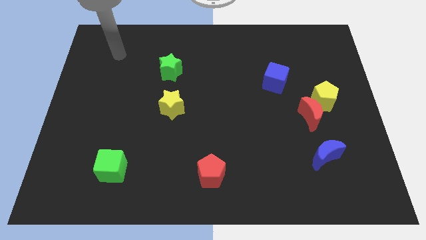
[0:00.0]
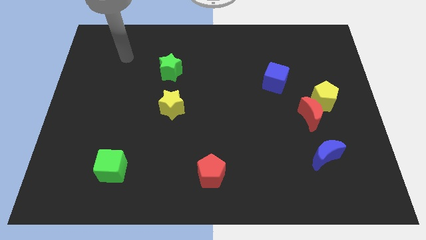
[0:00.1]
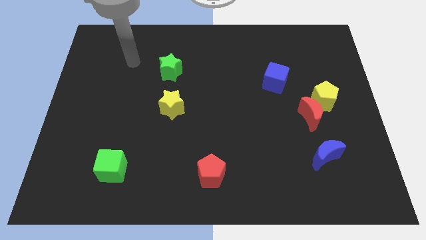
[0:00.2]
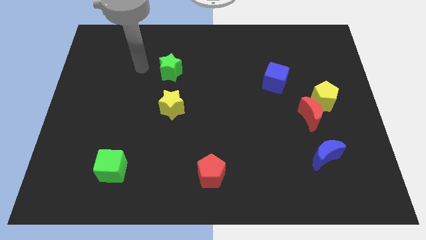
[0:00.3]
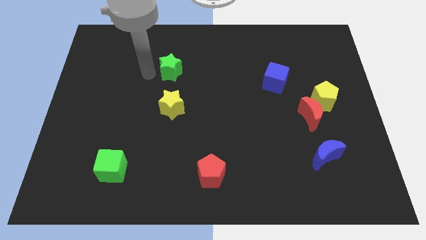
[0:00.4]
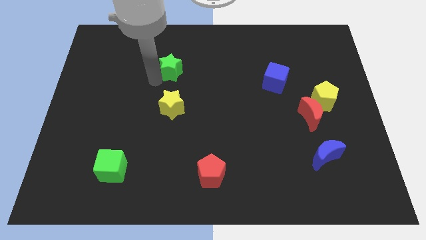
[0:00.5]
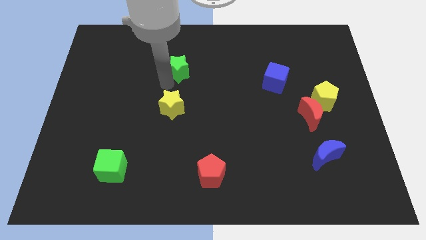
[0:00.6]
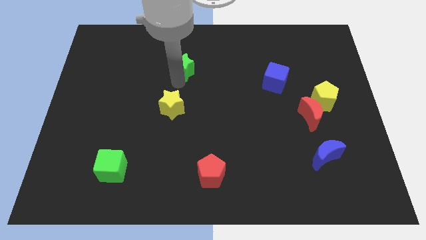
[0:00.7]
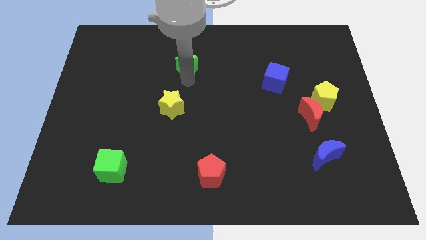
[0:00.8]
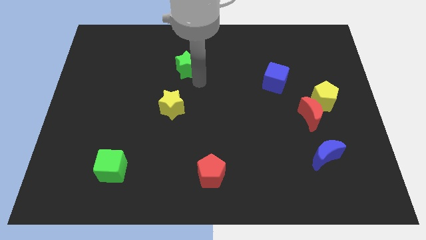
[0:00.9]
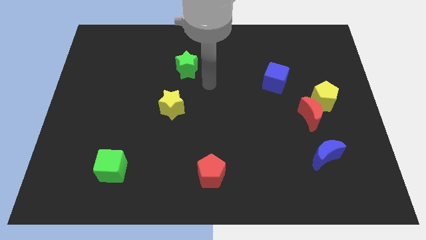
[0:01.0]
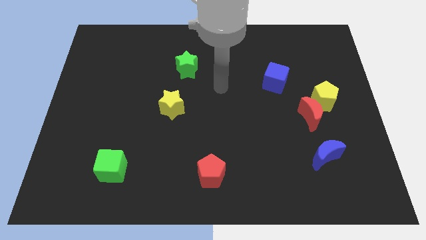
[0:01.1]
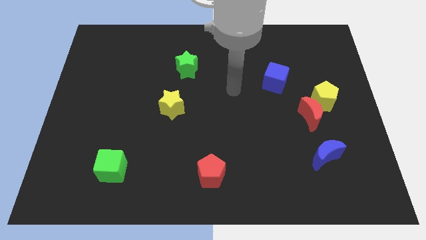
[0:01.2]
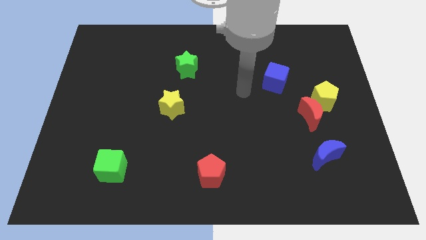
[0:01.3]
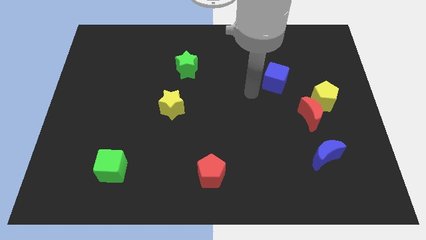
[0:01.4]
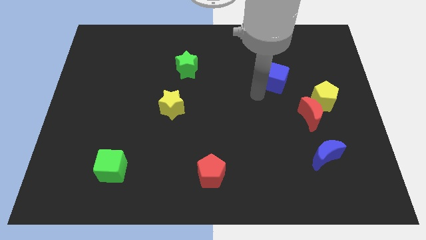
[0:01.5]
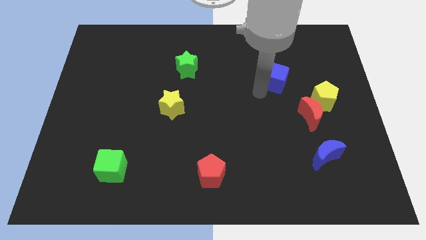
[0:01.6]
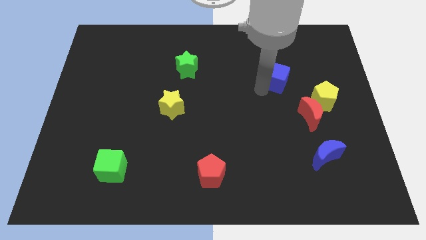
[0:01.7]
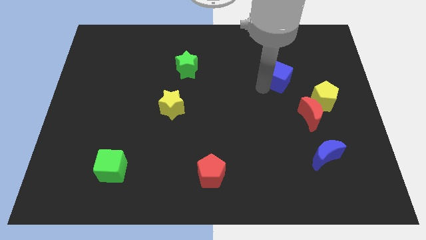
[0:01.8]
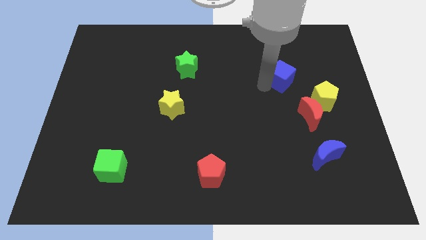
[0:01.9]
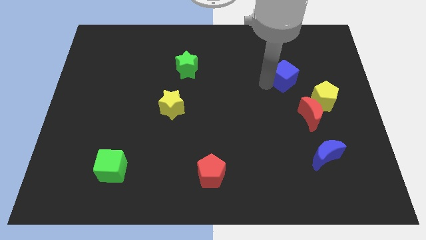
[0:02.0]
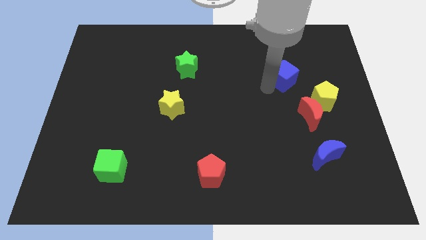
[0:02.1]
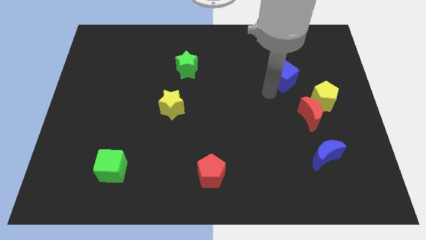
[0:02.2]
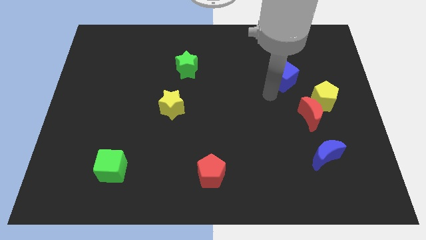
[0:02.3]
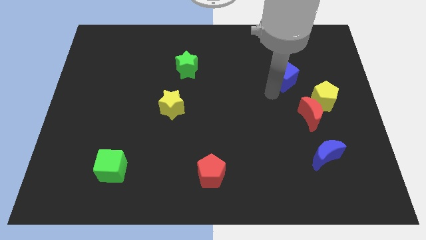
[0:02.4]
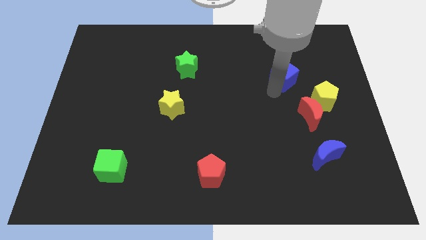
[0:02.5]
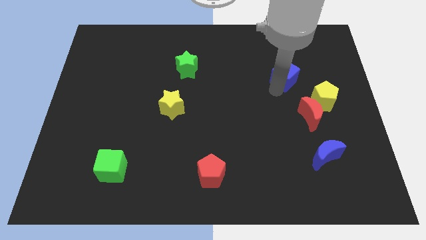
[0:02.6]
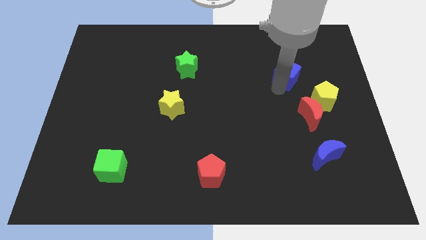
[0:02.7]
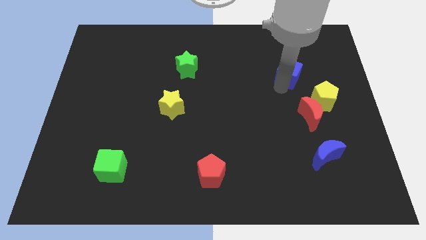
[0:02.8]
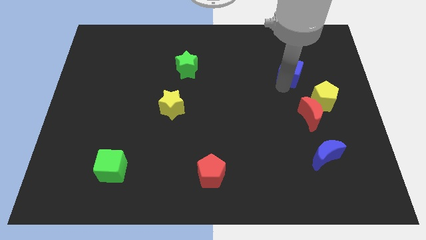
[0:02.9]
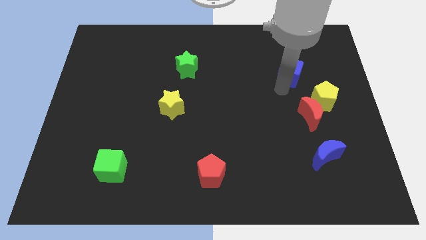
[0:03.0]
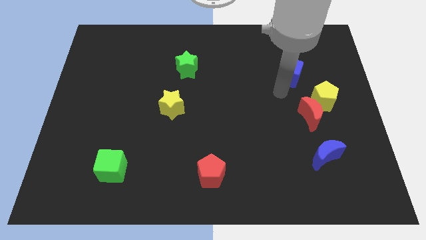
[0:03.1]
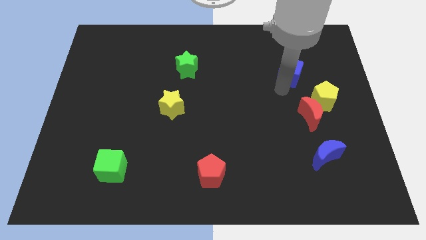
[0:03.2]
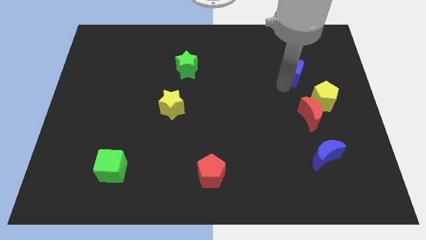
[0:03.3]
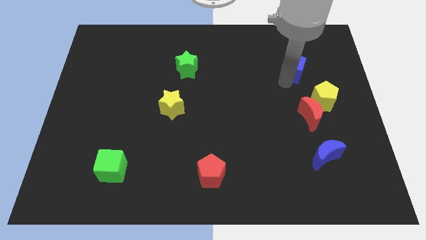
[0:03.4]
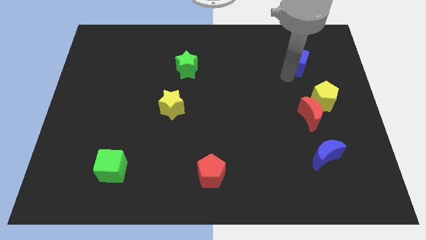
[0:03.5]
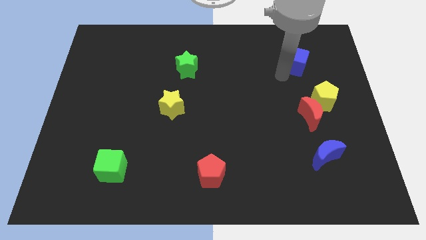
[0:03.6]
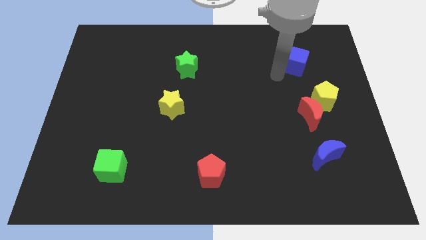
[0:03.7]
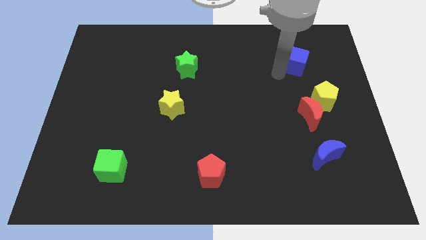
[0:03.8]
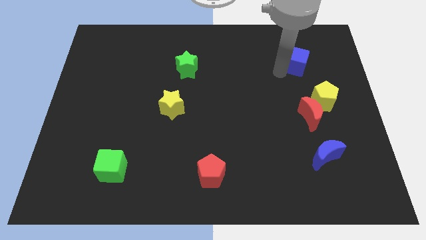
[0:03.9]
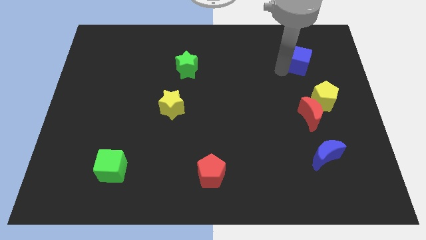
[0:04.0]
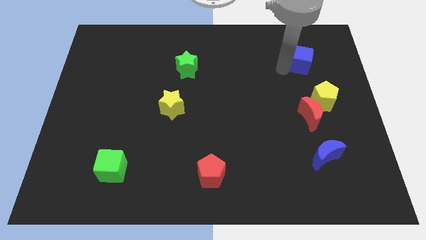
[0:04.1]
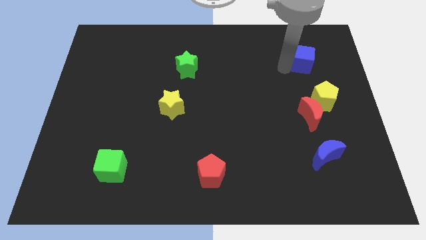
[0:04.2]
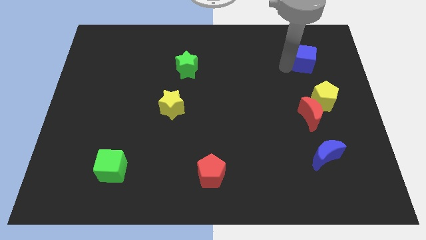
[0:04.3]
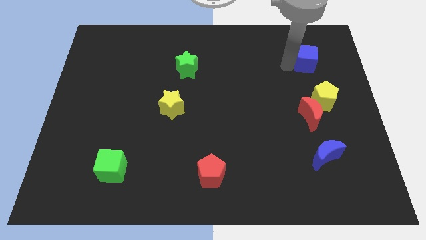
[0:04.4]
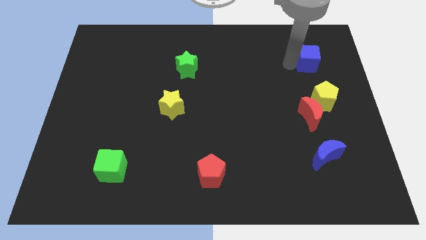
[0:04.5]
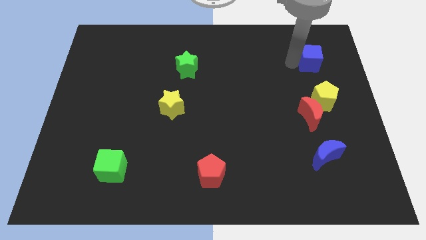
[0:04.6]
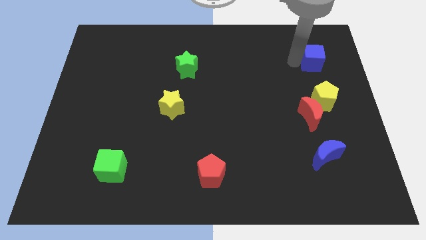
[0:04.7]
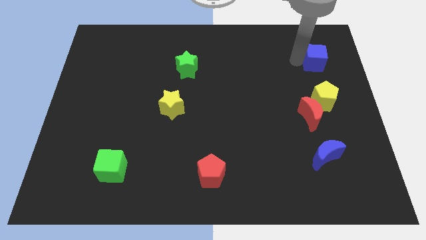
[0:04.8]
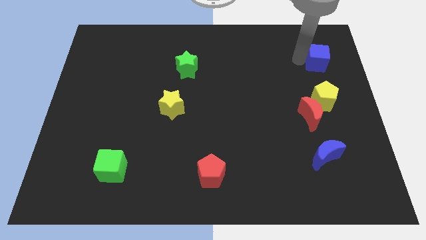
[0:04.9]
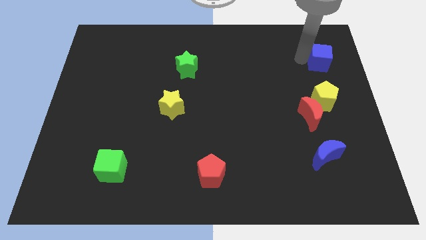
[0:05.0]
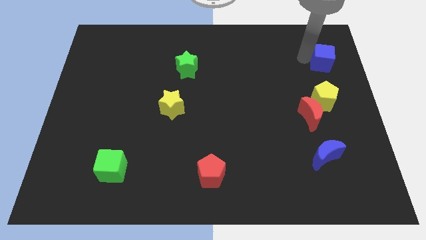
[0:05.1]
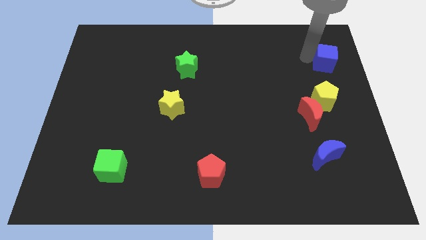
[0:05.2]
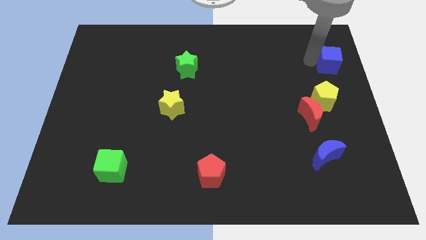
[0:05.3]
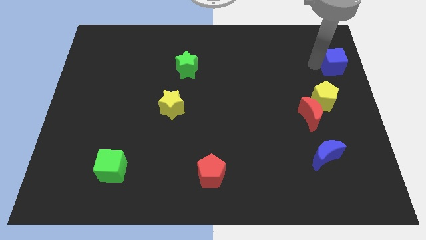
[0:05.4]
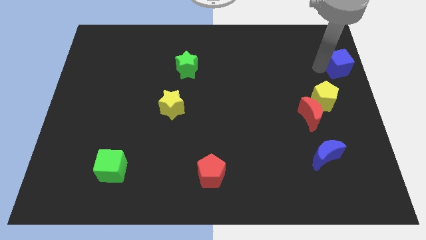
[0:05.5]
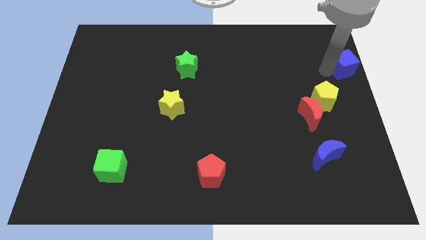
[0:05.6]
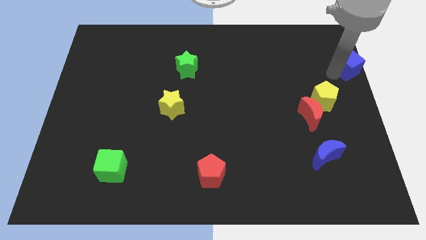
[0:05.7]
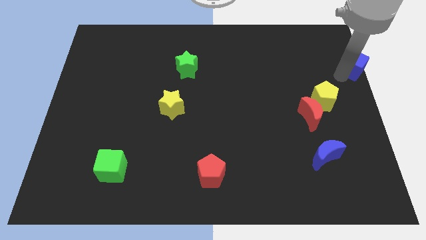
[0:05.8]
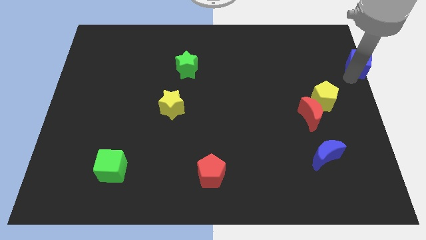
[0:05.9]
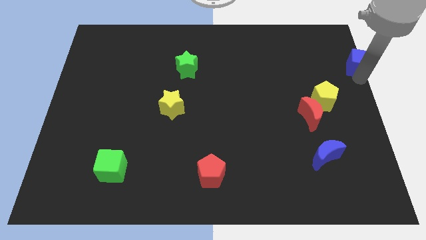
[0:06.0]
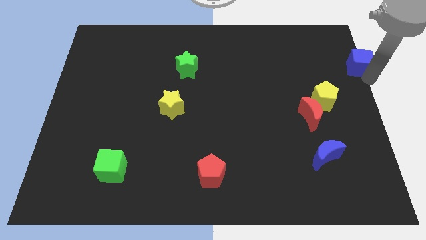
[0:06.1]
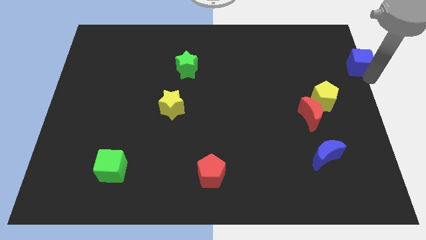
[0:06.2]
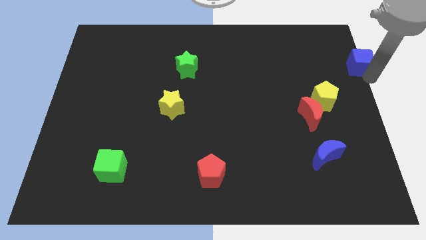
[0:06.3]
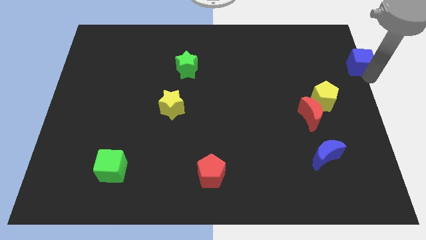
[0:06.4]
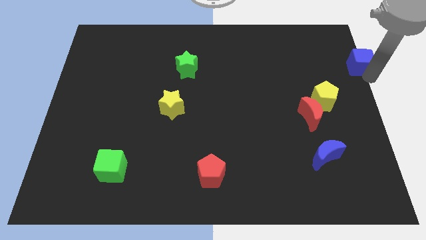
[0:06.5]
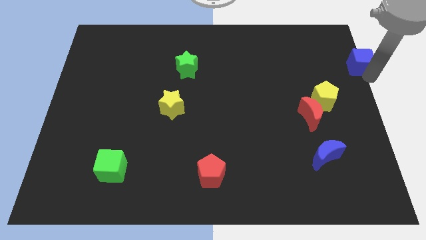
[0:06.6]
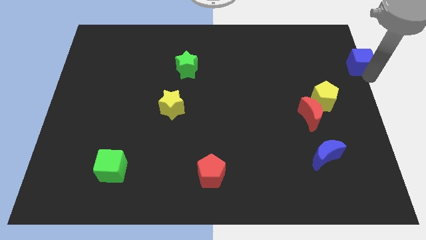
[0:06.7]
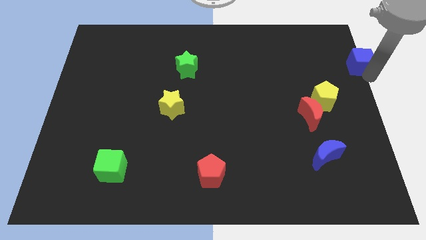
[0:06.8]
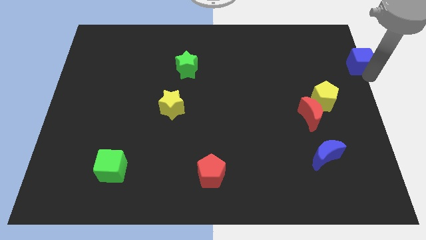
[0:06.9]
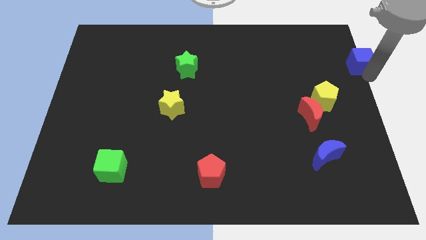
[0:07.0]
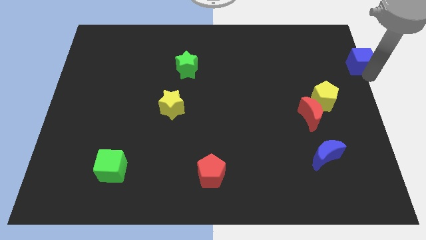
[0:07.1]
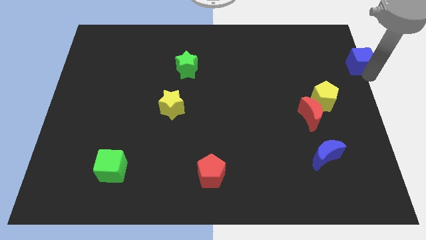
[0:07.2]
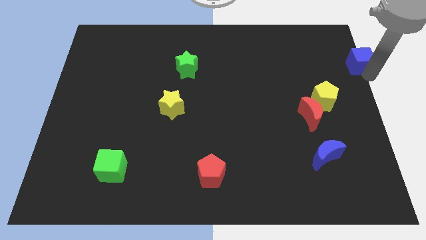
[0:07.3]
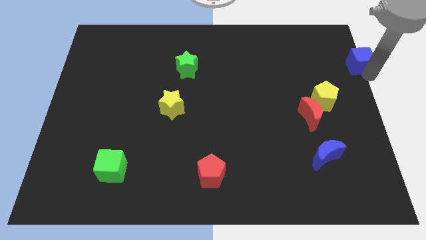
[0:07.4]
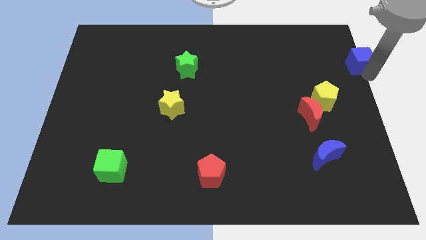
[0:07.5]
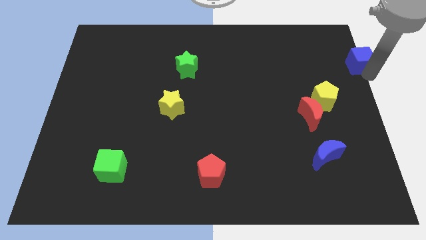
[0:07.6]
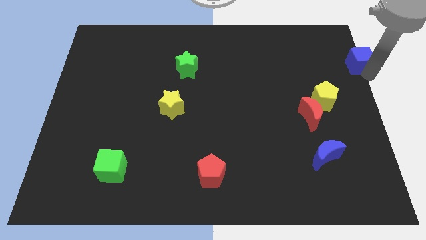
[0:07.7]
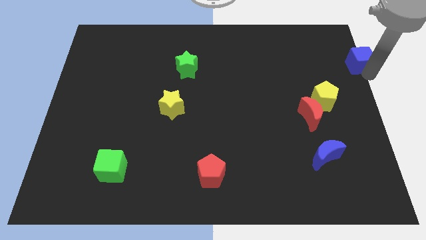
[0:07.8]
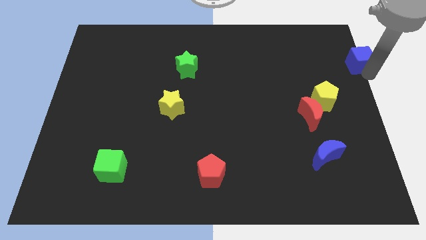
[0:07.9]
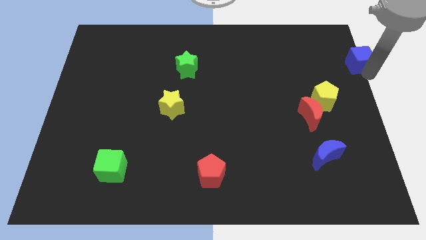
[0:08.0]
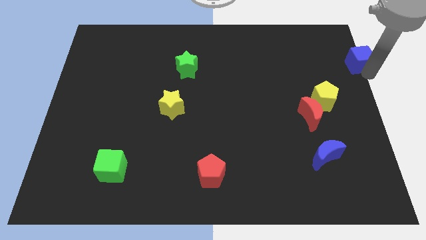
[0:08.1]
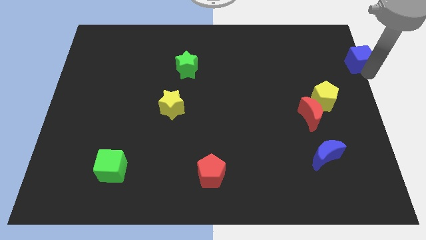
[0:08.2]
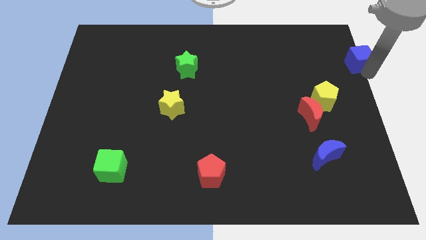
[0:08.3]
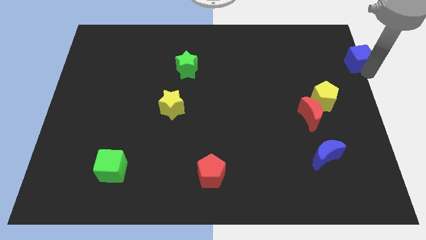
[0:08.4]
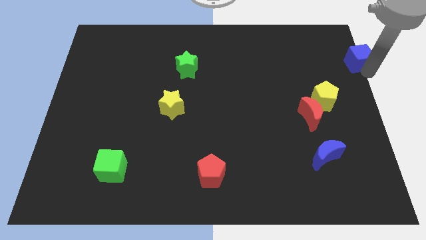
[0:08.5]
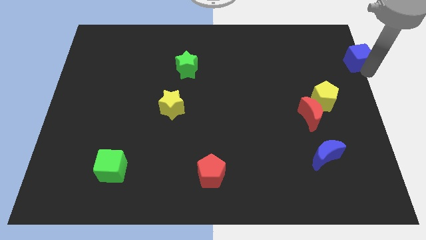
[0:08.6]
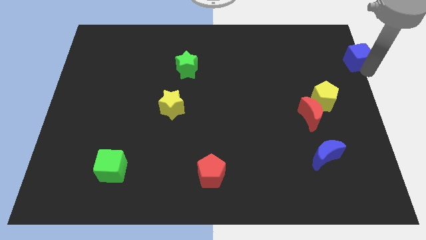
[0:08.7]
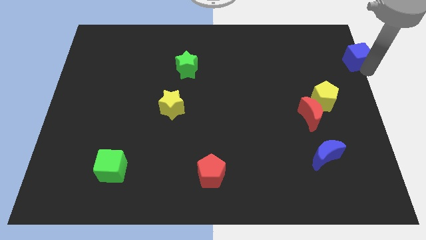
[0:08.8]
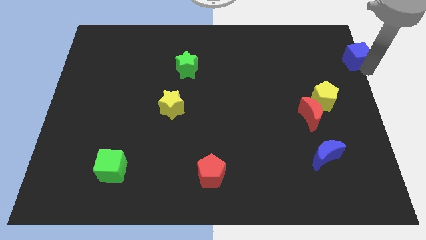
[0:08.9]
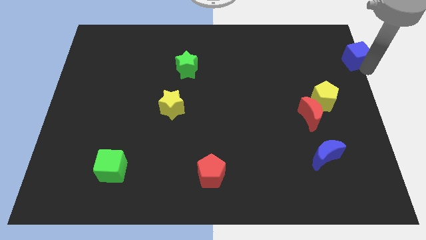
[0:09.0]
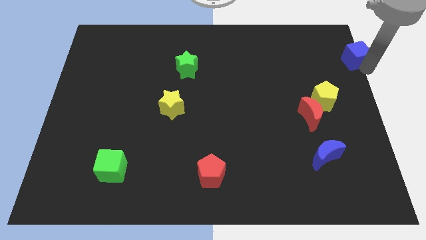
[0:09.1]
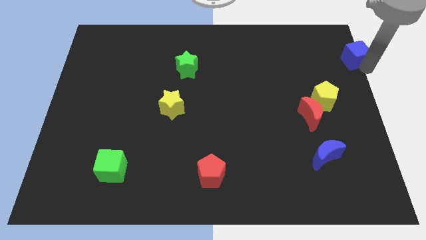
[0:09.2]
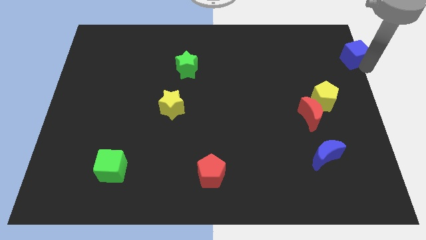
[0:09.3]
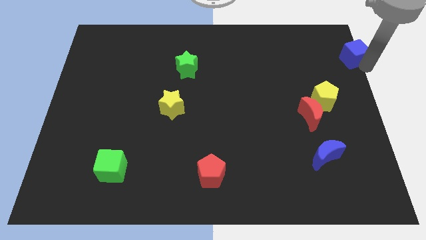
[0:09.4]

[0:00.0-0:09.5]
put the blue cube to the upper right corner
